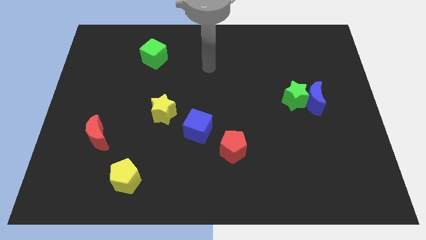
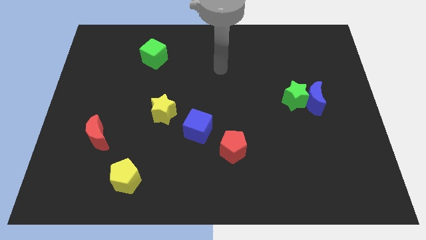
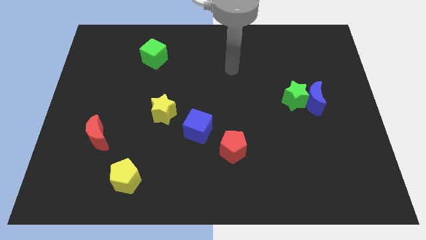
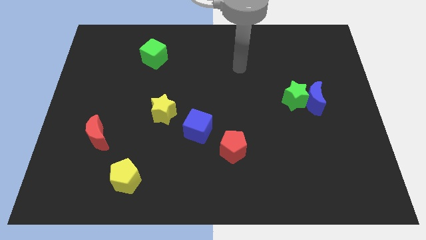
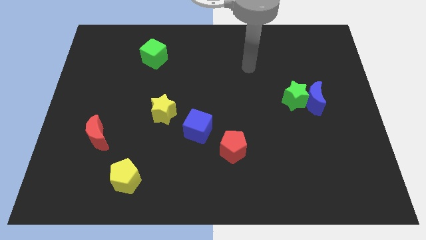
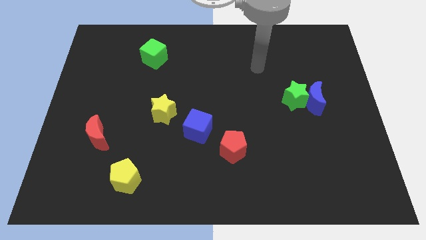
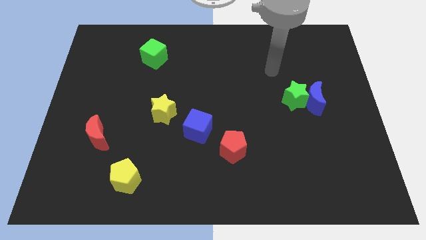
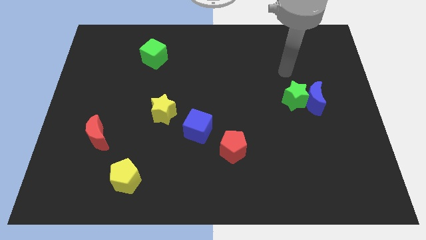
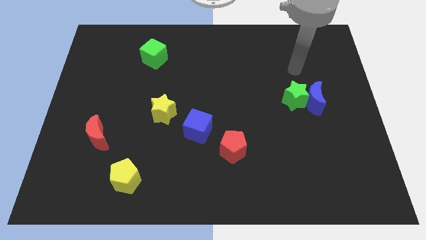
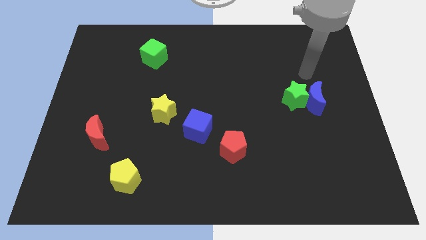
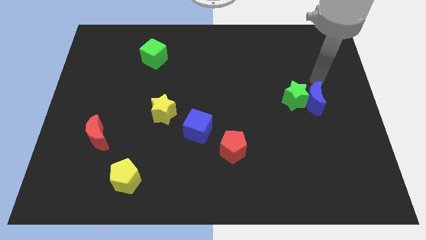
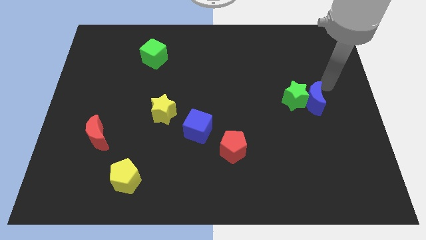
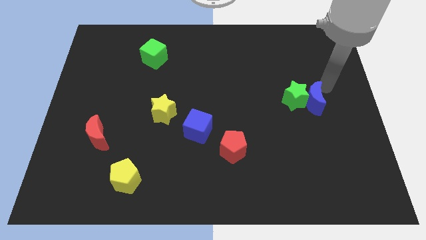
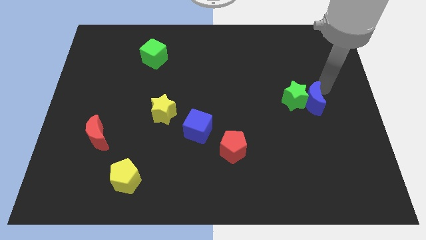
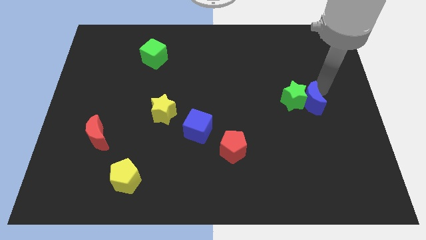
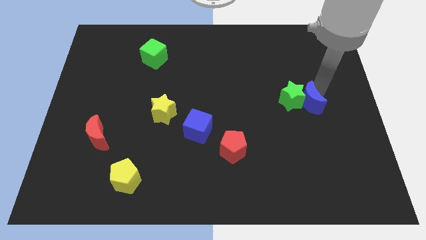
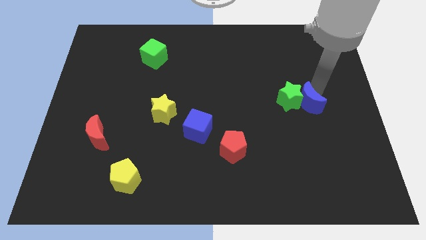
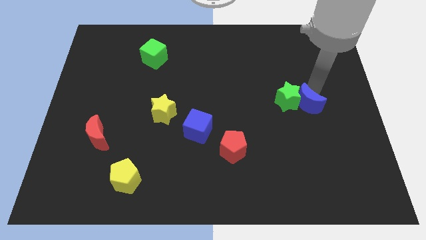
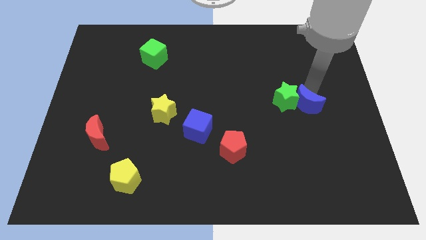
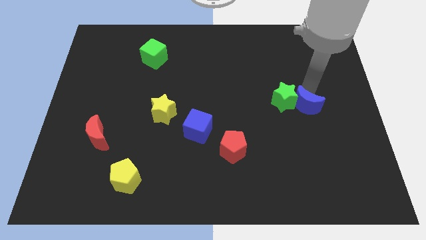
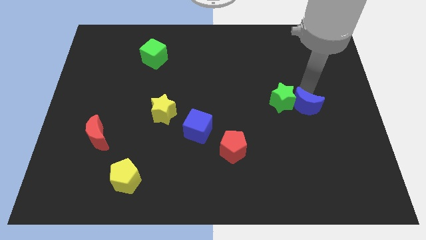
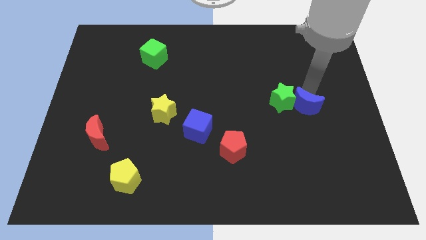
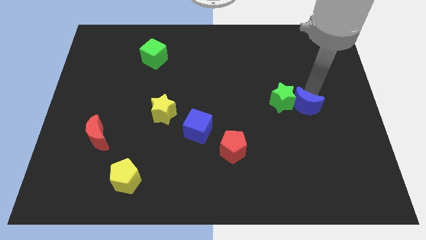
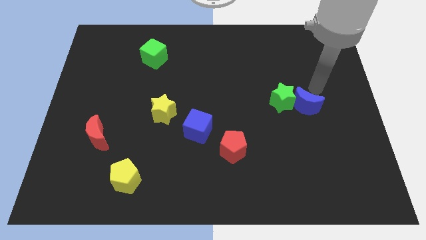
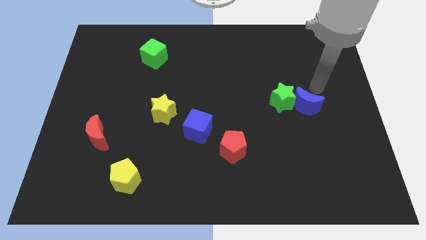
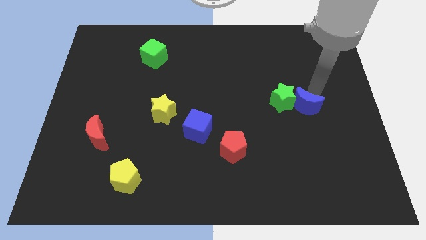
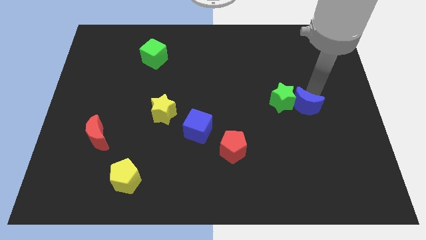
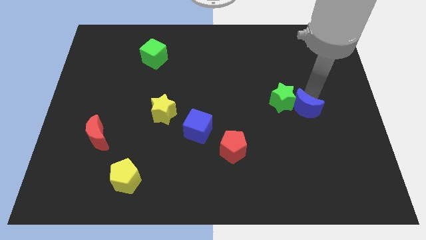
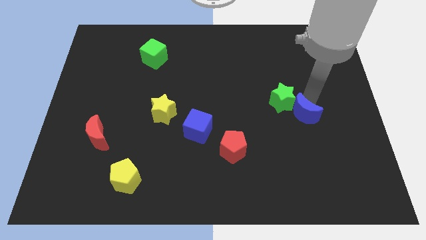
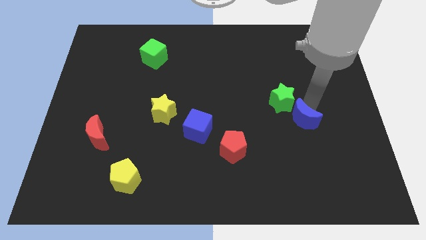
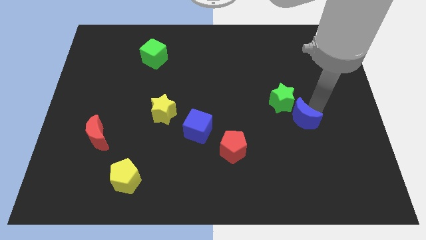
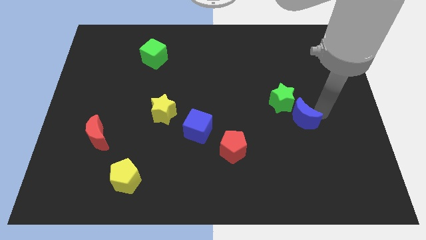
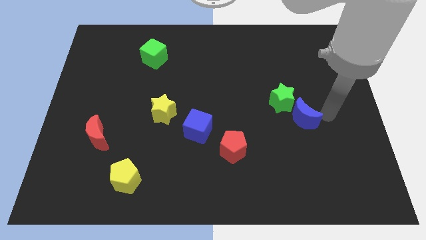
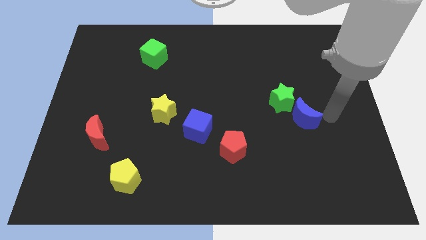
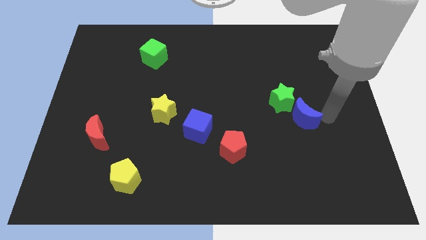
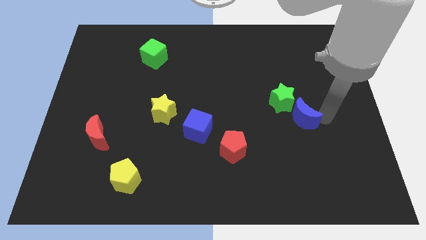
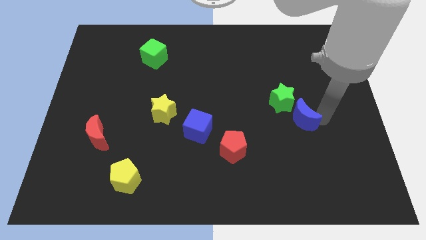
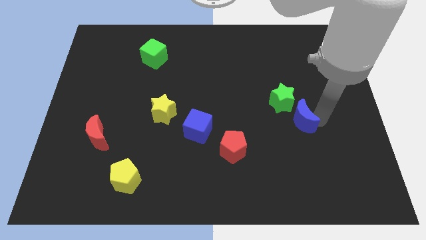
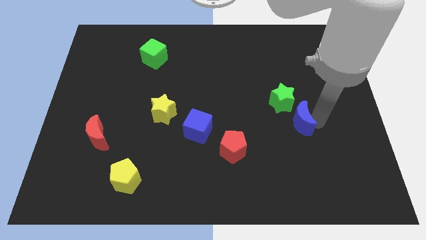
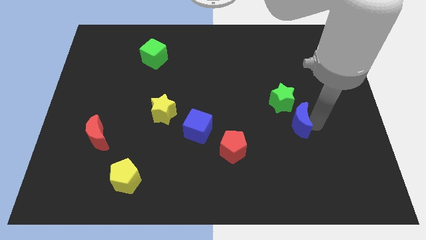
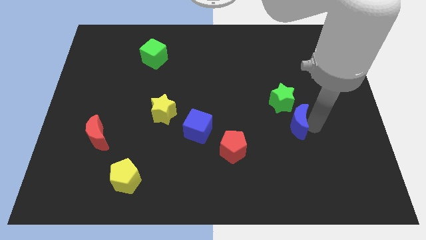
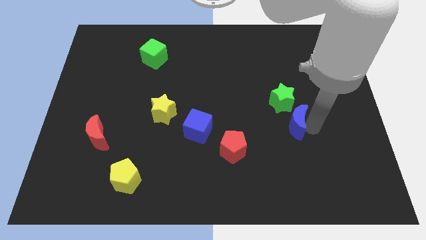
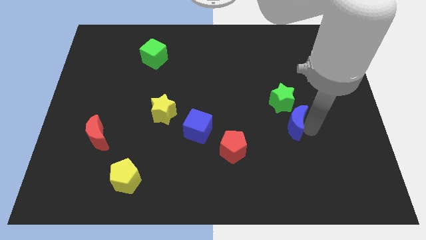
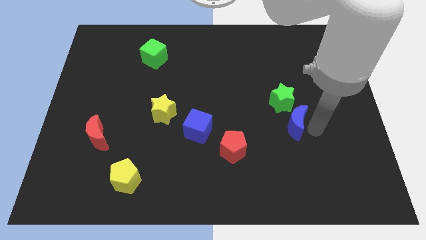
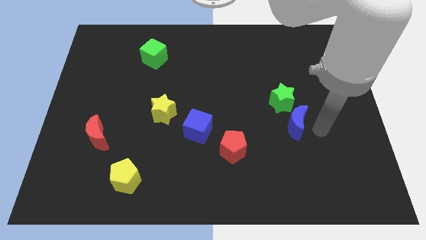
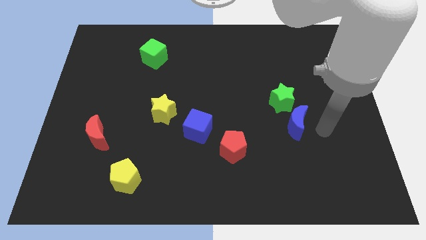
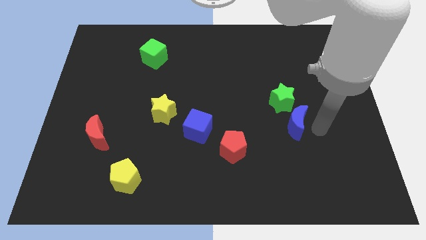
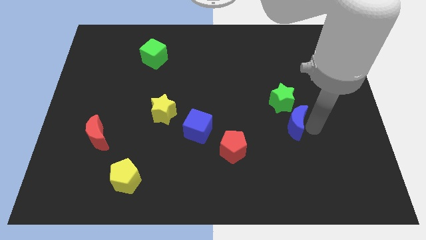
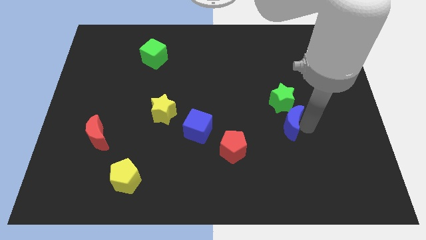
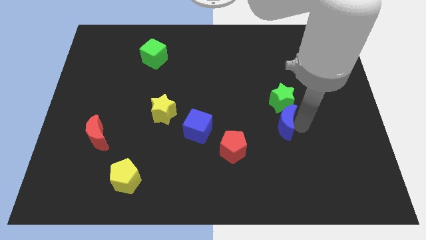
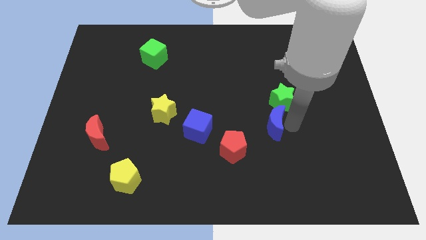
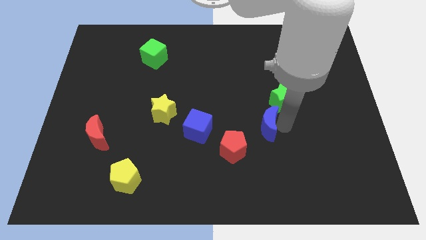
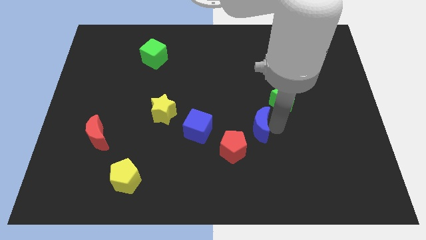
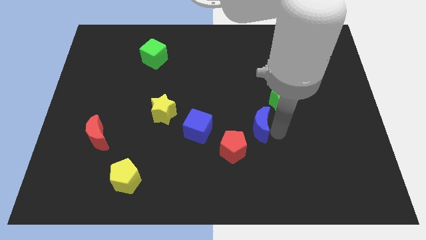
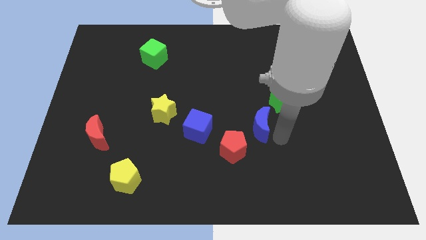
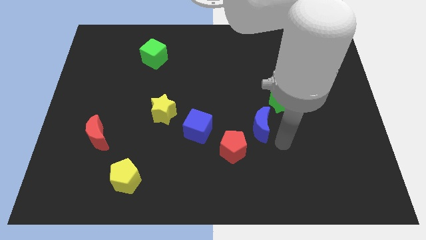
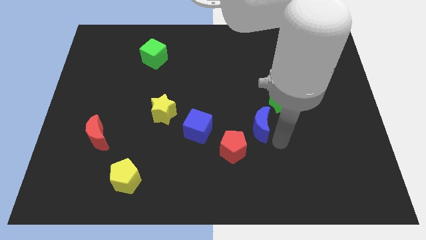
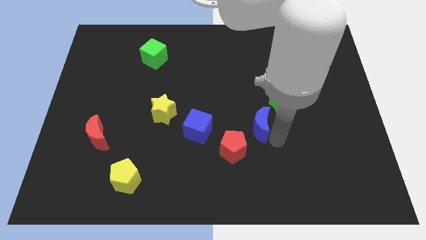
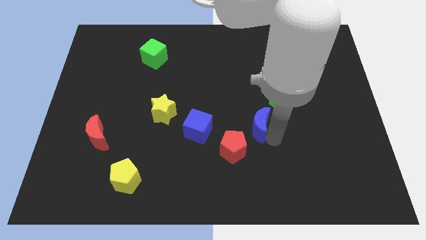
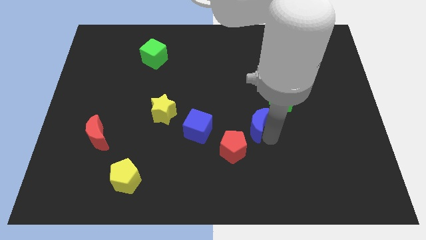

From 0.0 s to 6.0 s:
put the blue moon to the center
